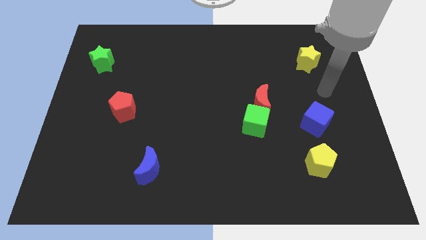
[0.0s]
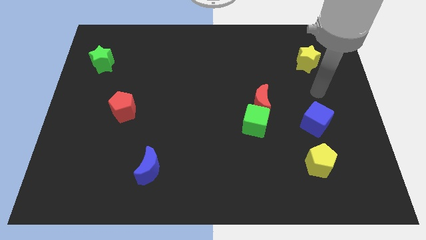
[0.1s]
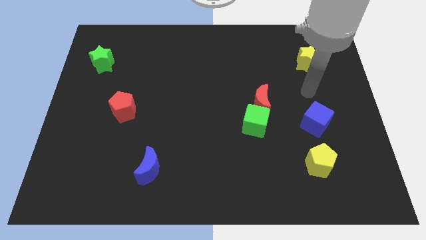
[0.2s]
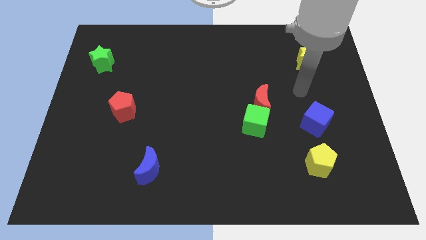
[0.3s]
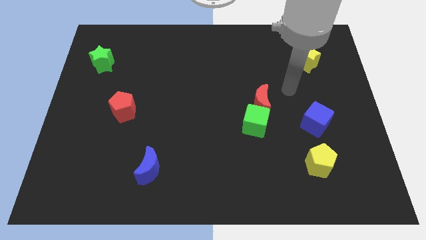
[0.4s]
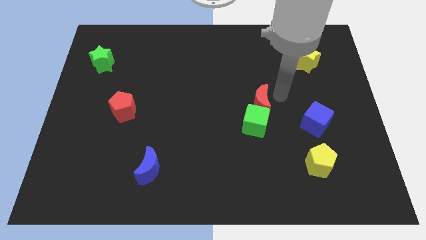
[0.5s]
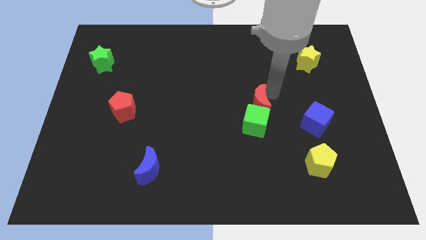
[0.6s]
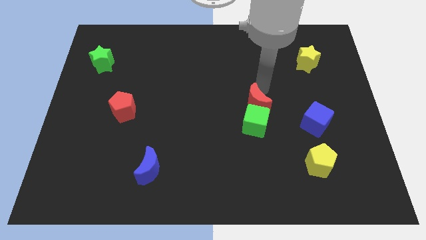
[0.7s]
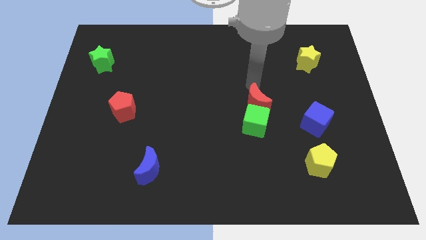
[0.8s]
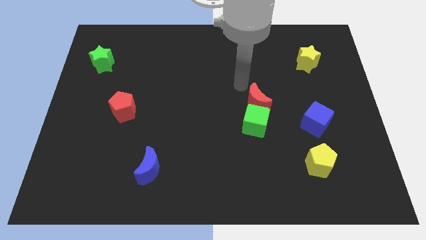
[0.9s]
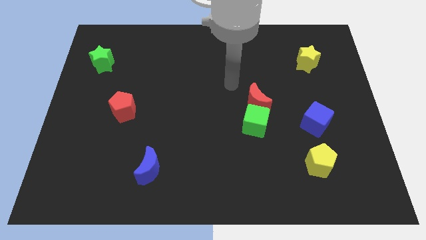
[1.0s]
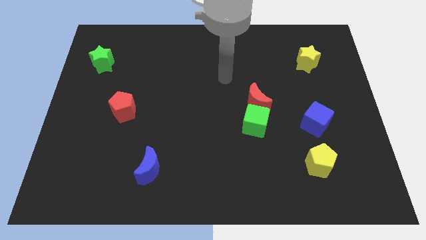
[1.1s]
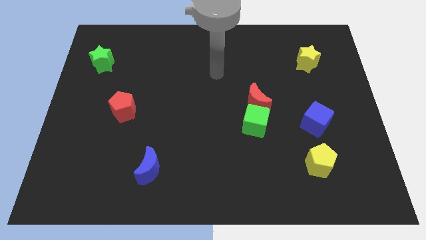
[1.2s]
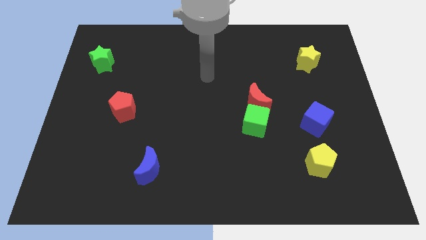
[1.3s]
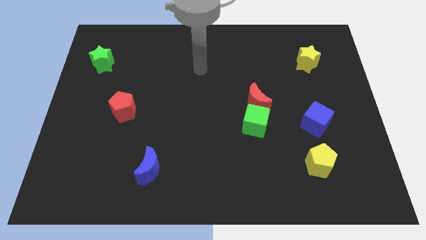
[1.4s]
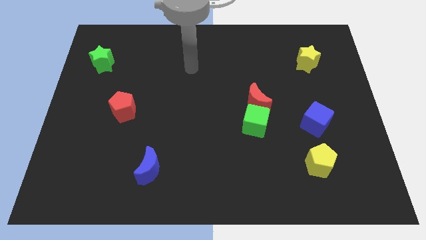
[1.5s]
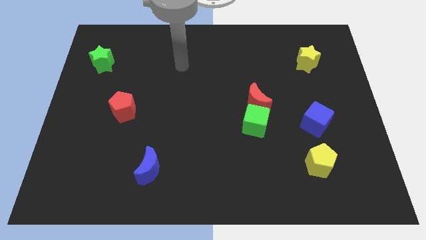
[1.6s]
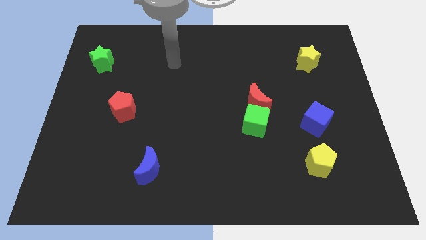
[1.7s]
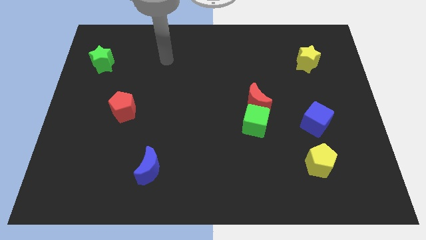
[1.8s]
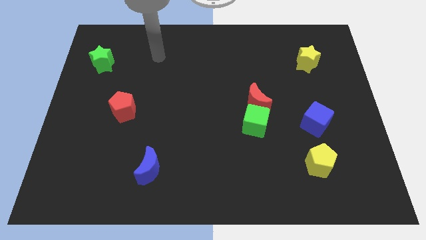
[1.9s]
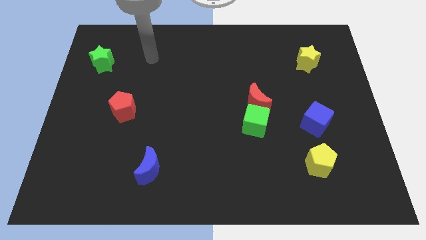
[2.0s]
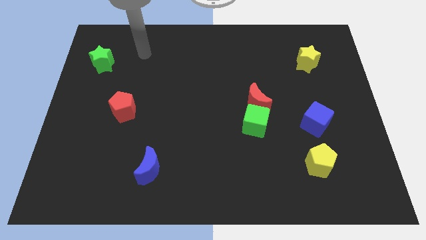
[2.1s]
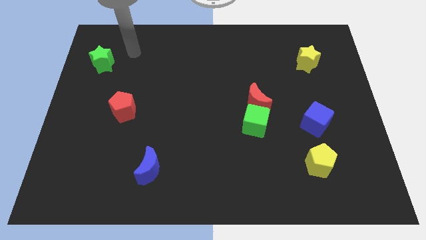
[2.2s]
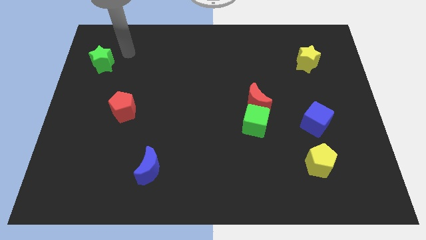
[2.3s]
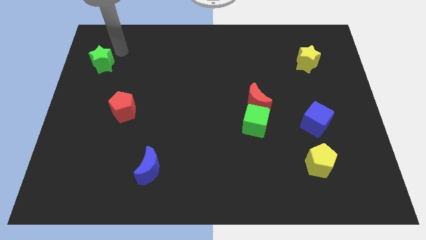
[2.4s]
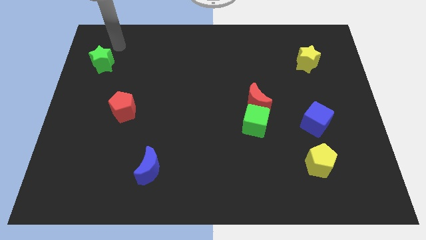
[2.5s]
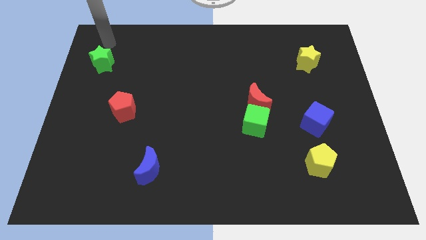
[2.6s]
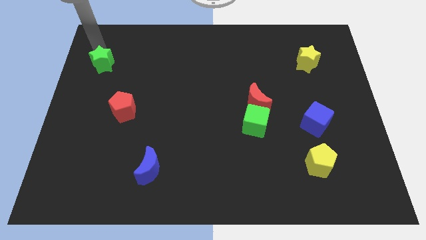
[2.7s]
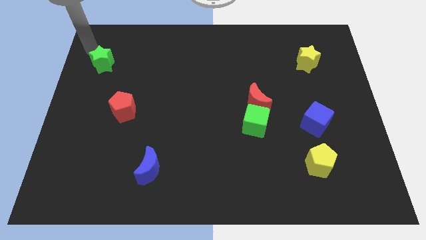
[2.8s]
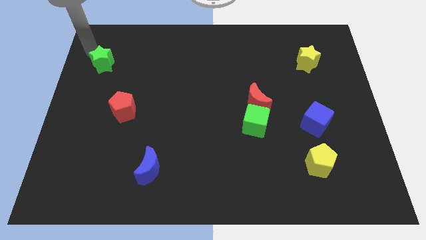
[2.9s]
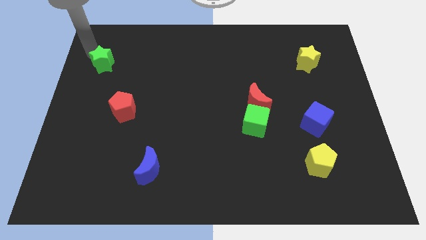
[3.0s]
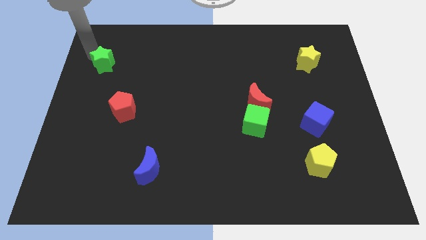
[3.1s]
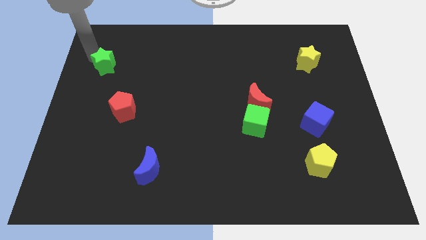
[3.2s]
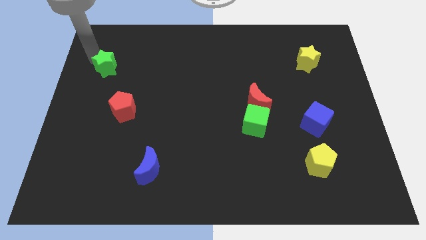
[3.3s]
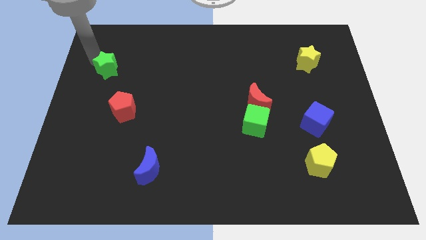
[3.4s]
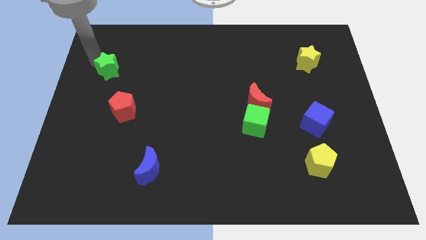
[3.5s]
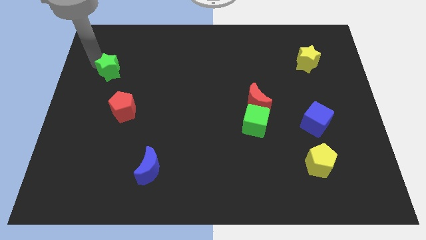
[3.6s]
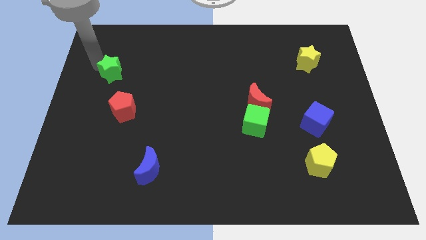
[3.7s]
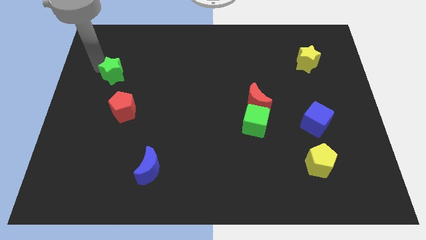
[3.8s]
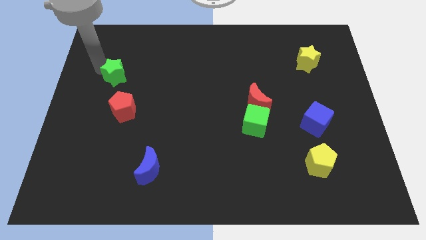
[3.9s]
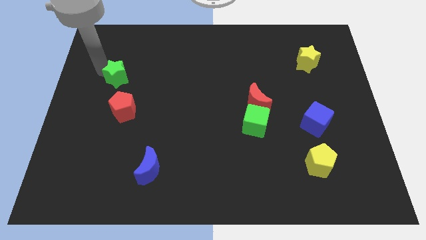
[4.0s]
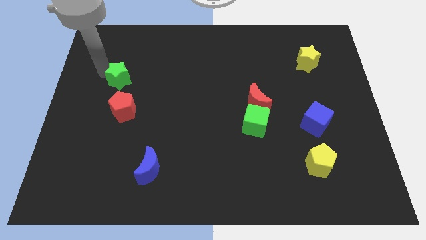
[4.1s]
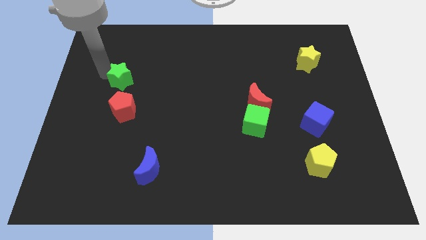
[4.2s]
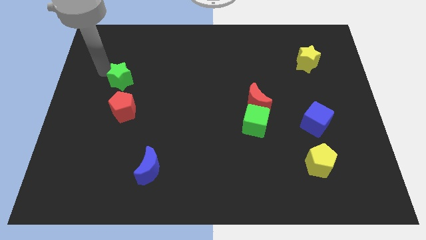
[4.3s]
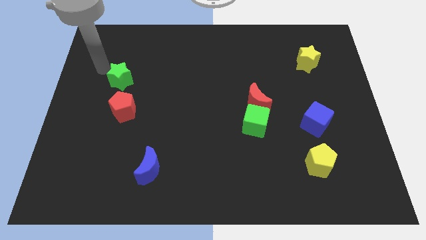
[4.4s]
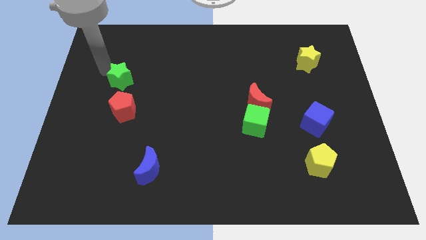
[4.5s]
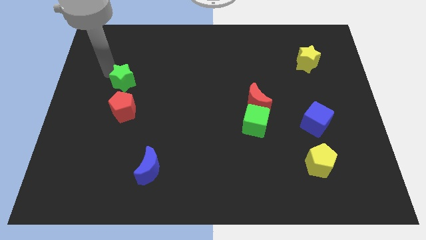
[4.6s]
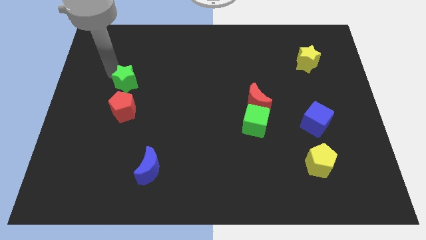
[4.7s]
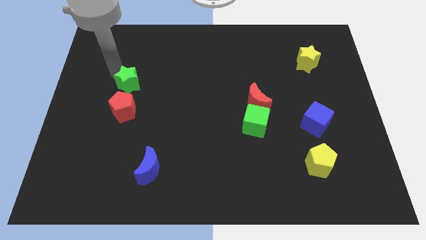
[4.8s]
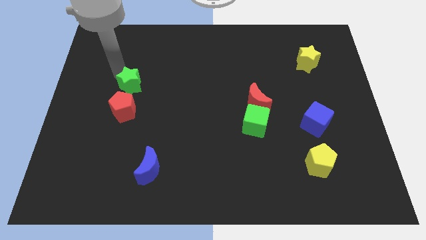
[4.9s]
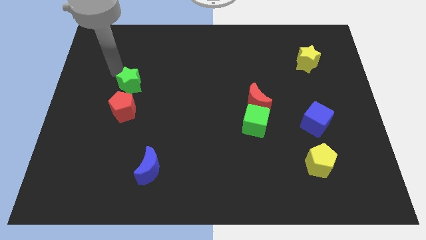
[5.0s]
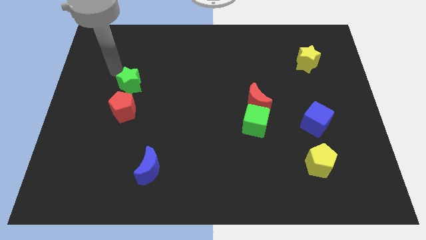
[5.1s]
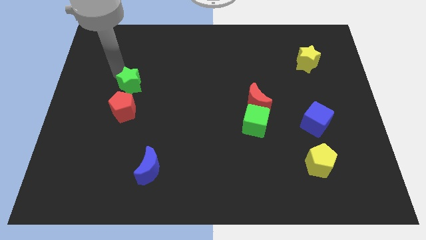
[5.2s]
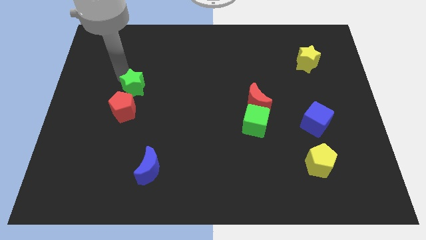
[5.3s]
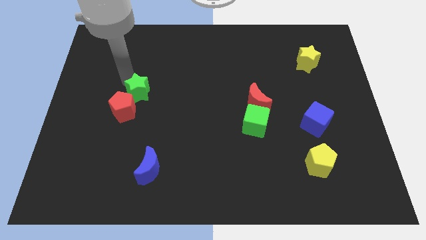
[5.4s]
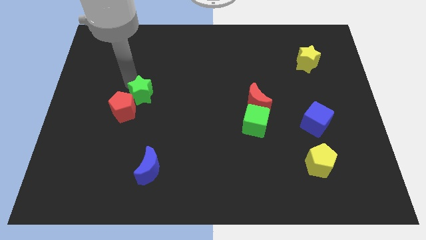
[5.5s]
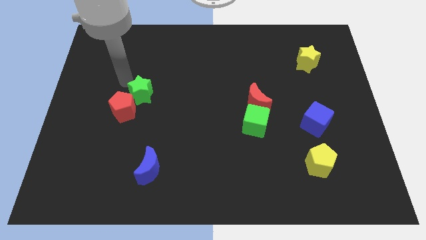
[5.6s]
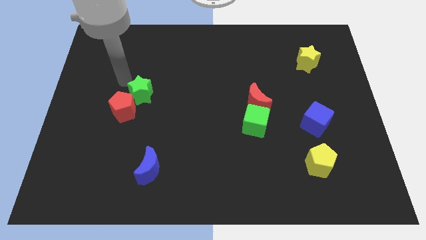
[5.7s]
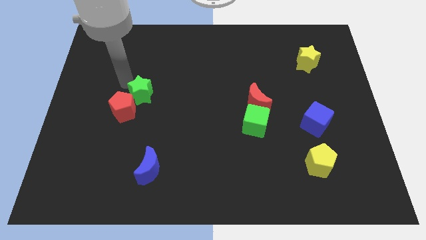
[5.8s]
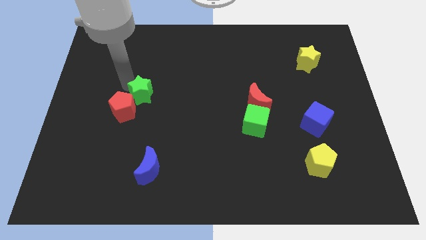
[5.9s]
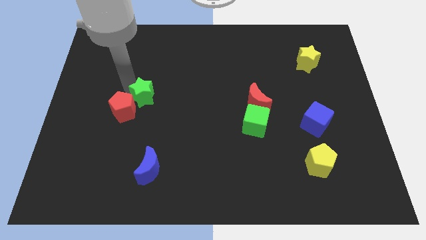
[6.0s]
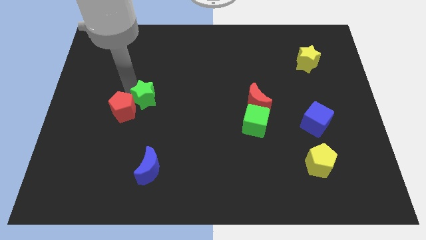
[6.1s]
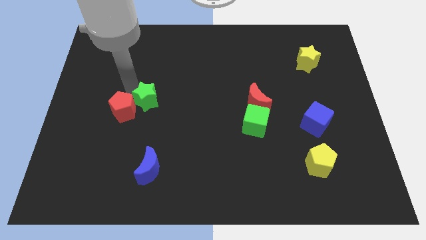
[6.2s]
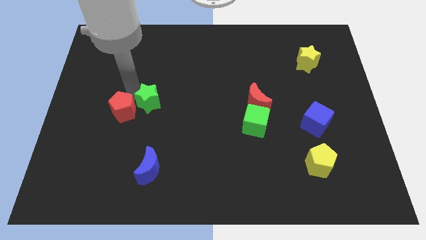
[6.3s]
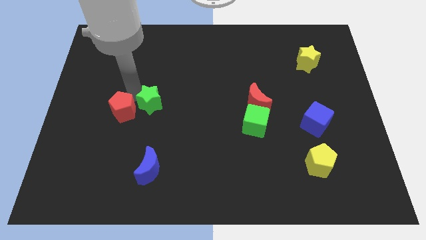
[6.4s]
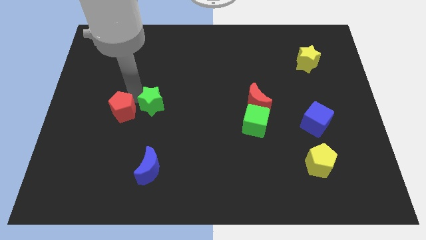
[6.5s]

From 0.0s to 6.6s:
push the green star down and to the right

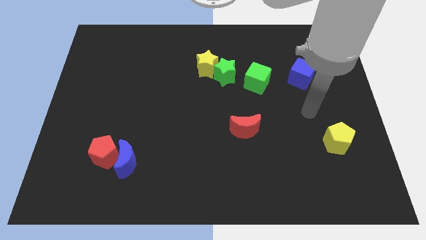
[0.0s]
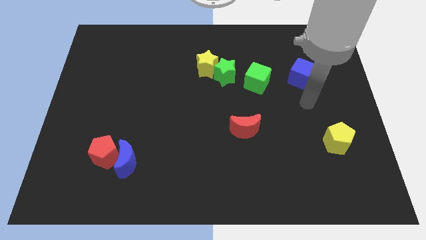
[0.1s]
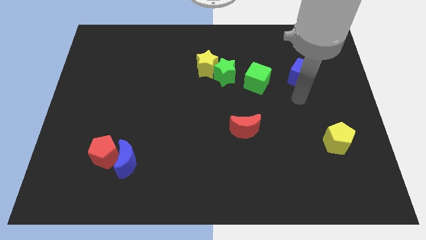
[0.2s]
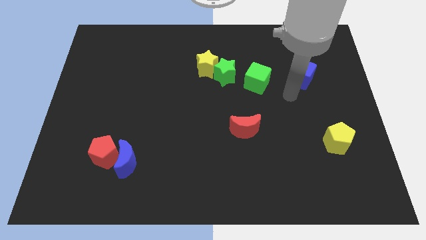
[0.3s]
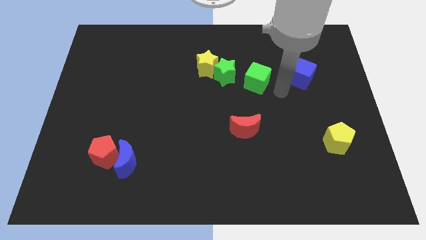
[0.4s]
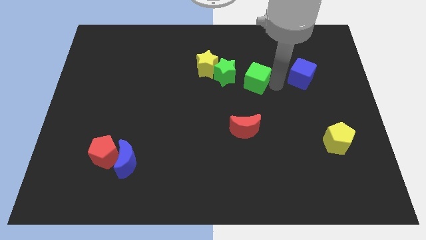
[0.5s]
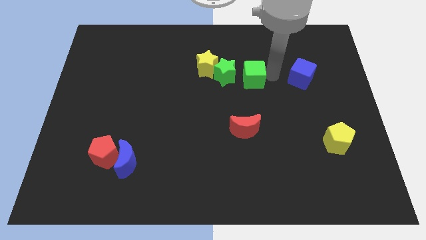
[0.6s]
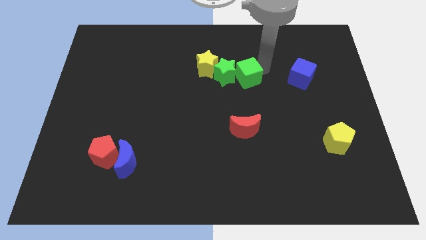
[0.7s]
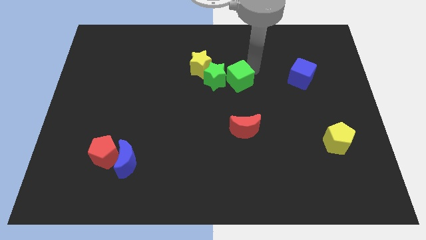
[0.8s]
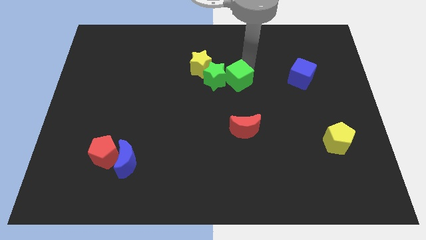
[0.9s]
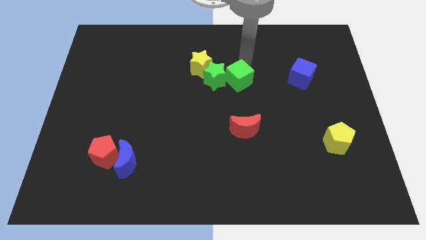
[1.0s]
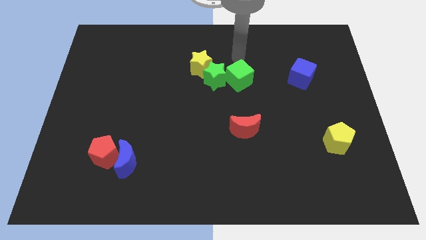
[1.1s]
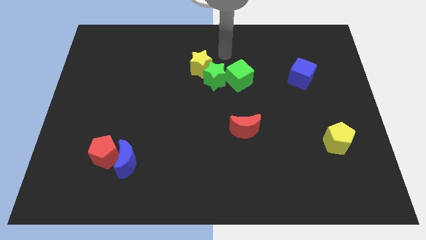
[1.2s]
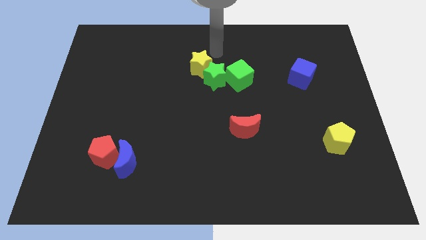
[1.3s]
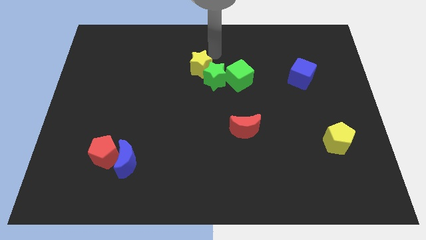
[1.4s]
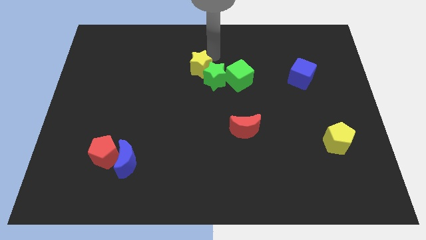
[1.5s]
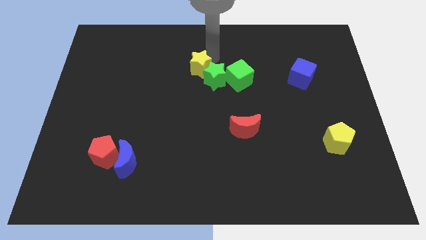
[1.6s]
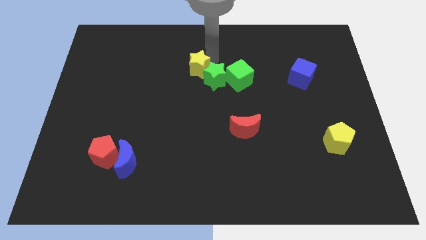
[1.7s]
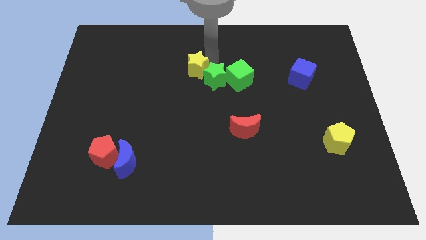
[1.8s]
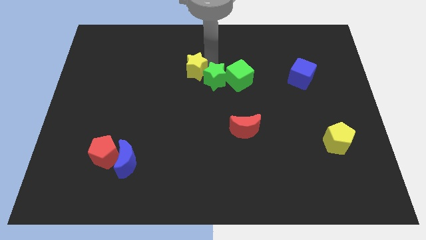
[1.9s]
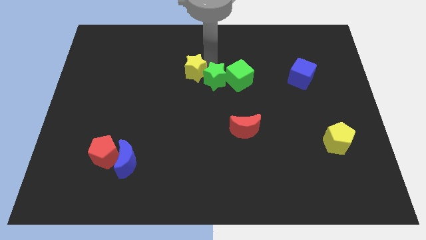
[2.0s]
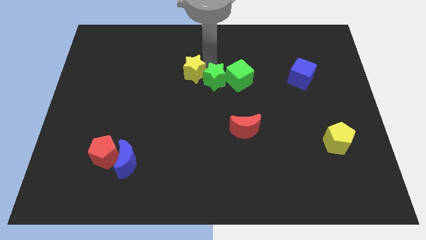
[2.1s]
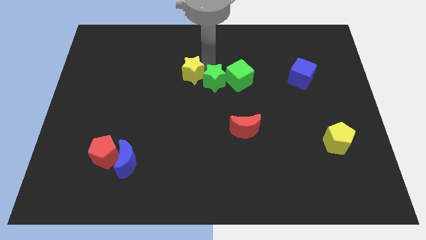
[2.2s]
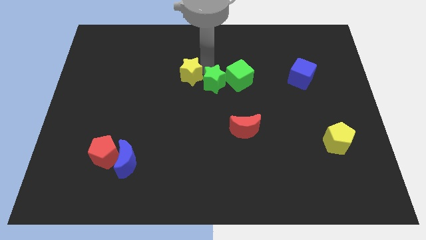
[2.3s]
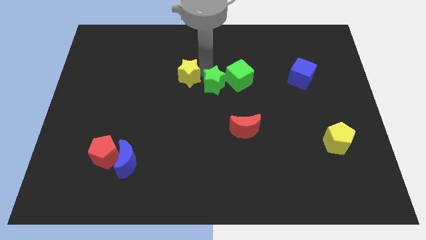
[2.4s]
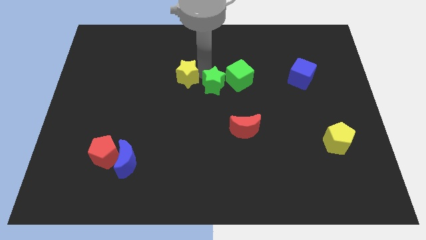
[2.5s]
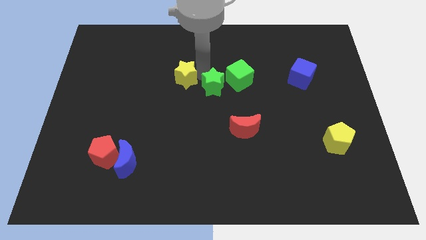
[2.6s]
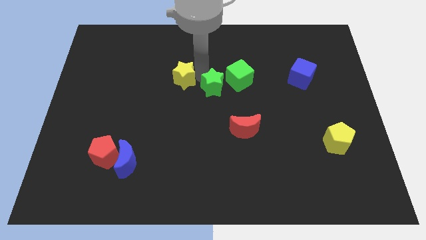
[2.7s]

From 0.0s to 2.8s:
slide the yellow star downwards and then left a bit
